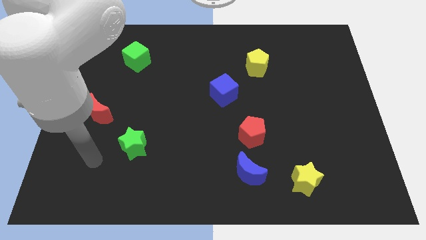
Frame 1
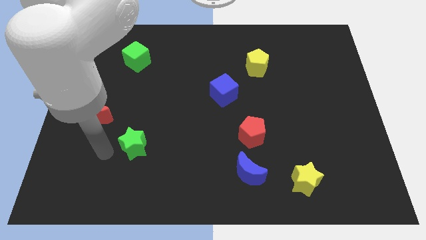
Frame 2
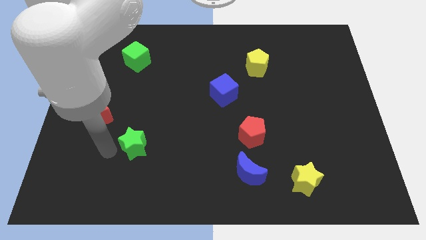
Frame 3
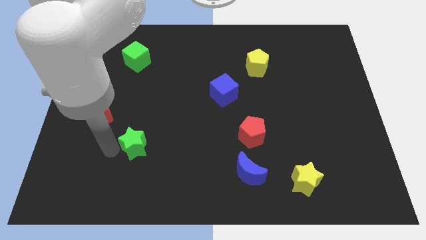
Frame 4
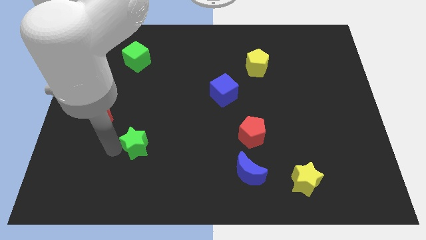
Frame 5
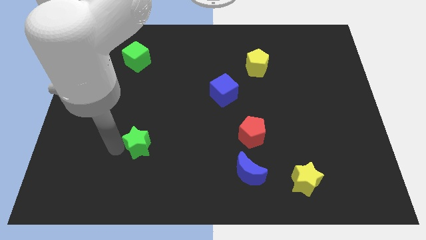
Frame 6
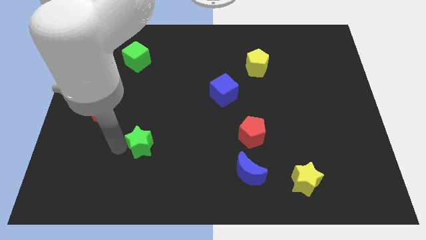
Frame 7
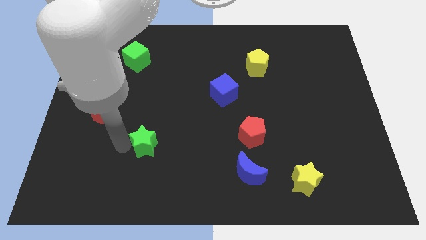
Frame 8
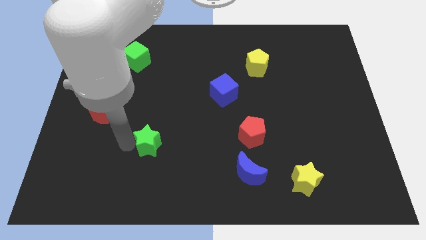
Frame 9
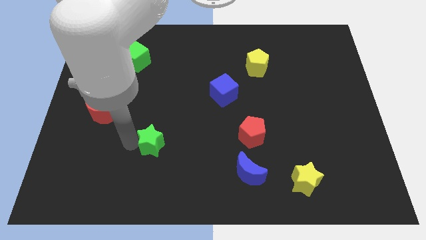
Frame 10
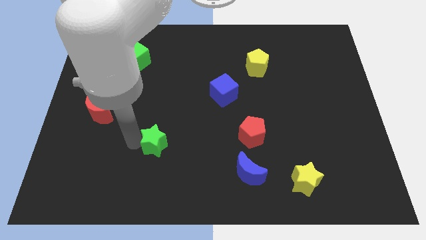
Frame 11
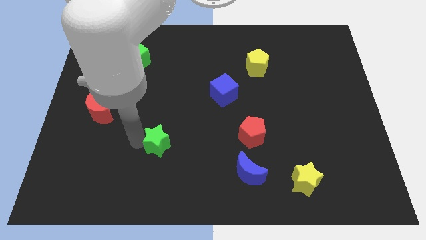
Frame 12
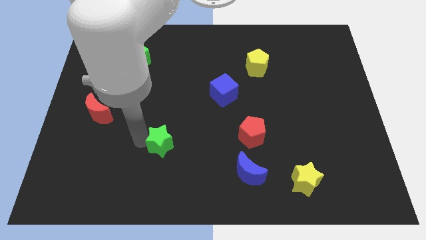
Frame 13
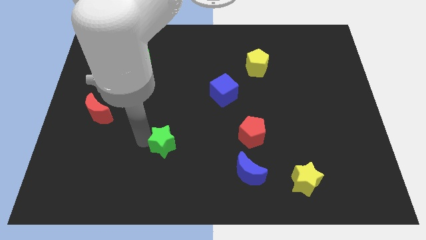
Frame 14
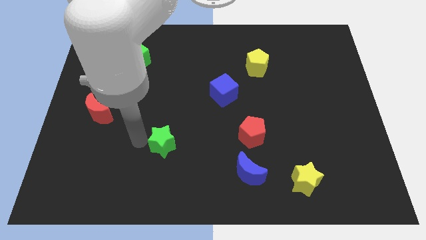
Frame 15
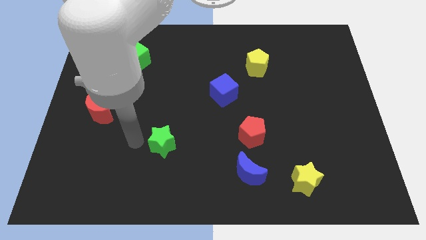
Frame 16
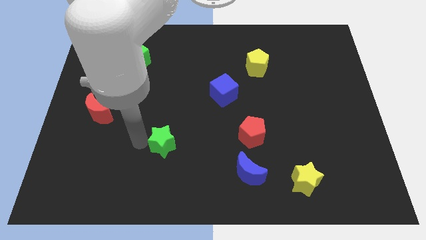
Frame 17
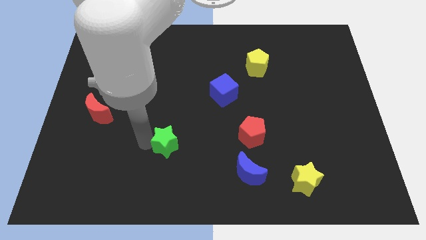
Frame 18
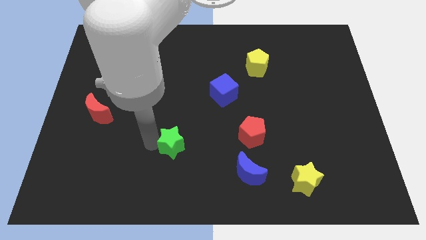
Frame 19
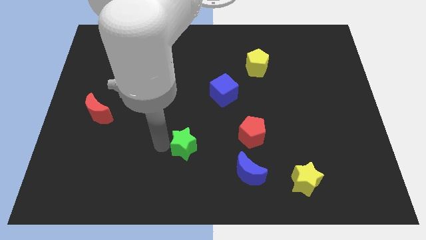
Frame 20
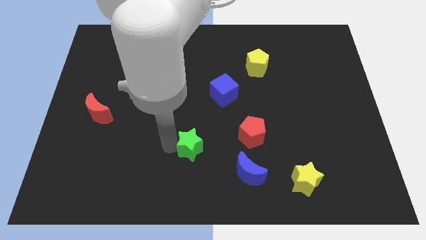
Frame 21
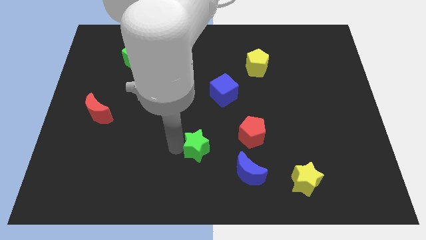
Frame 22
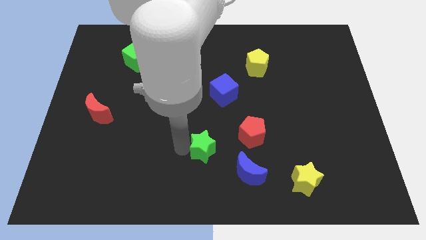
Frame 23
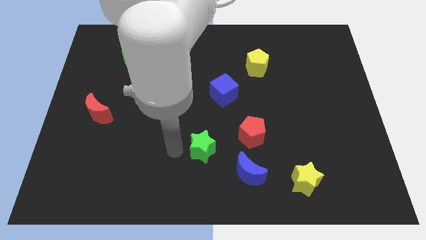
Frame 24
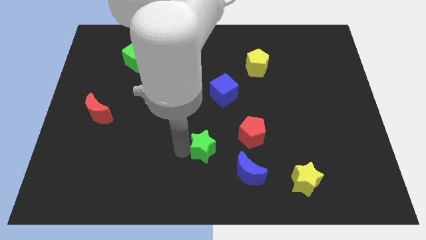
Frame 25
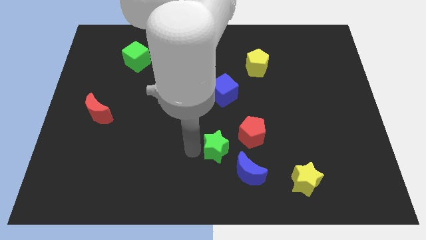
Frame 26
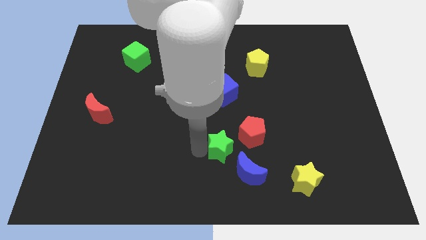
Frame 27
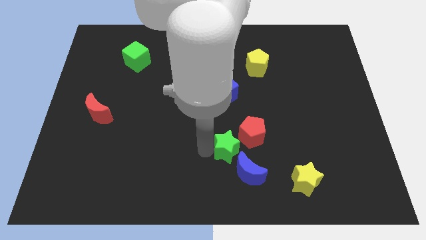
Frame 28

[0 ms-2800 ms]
move the green star right

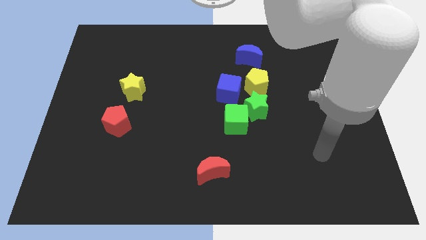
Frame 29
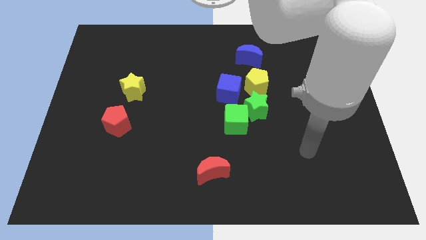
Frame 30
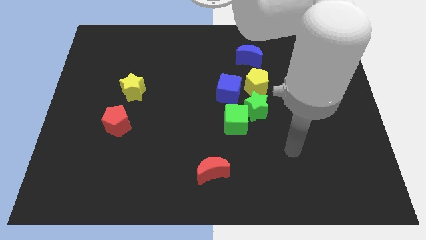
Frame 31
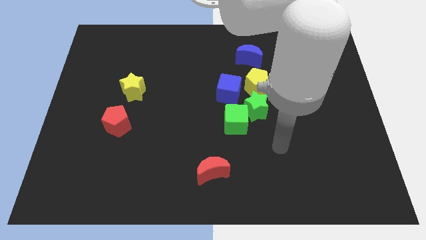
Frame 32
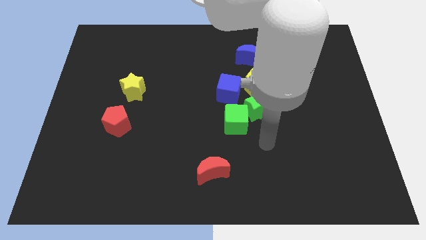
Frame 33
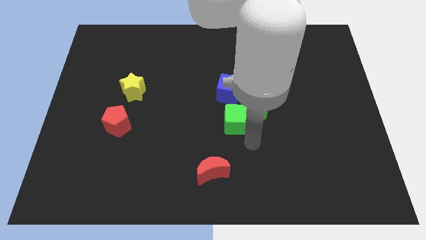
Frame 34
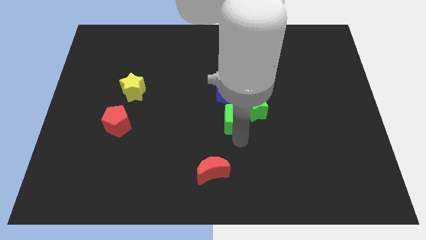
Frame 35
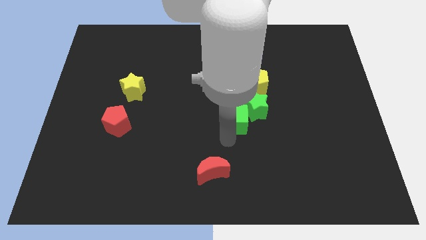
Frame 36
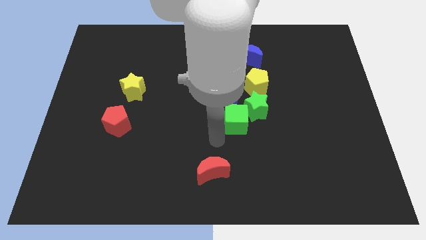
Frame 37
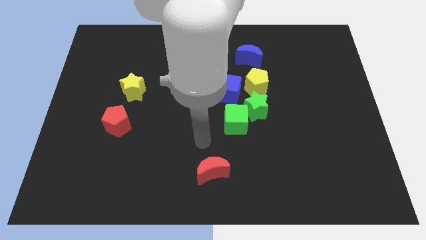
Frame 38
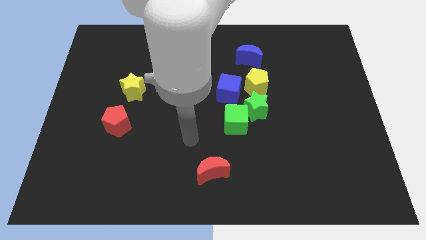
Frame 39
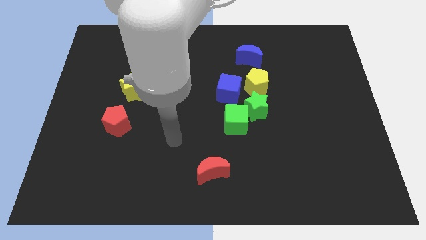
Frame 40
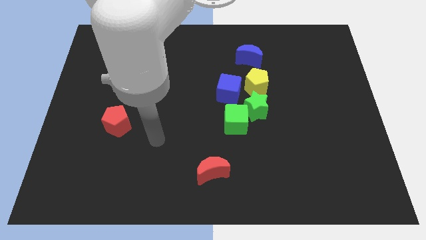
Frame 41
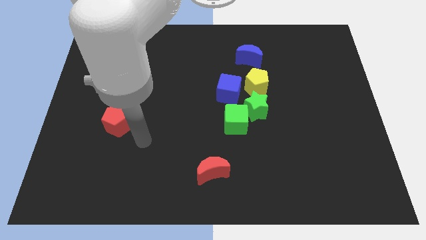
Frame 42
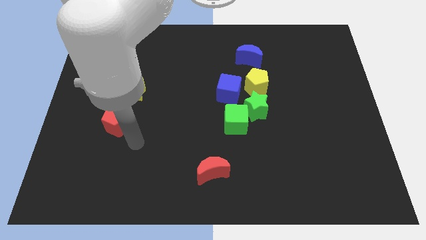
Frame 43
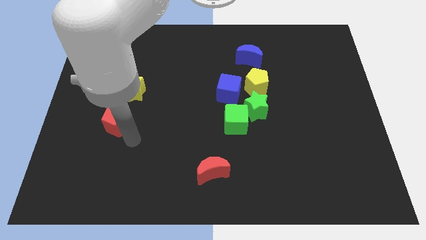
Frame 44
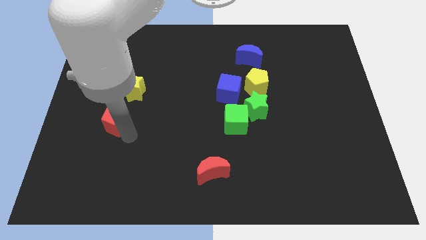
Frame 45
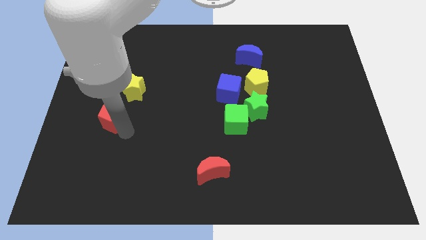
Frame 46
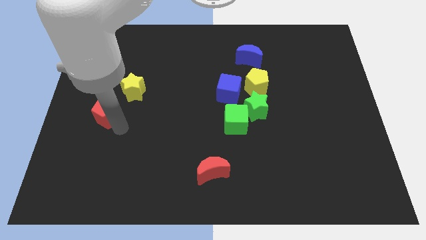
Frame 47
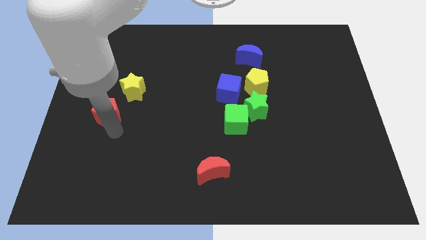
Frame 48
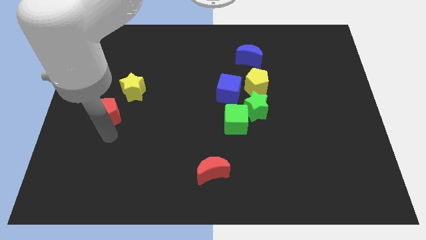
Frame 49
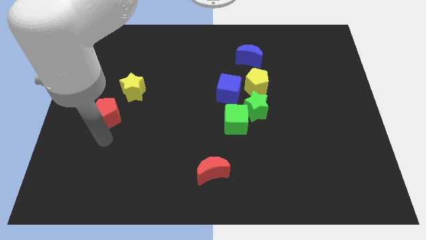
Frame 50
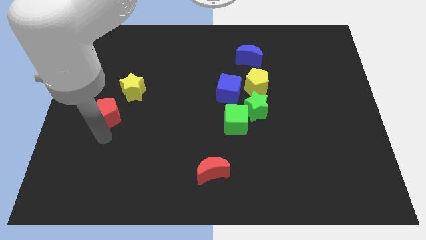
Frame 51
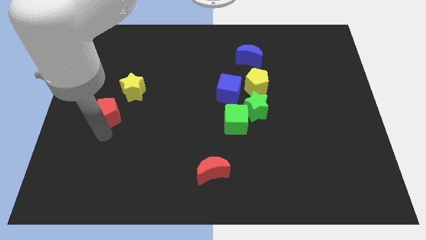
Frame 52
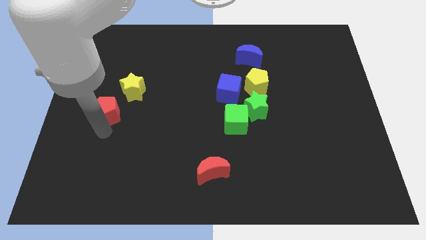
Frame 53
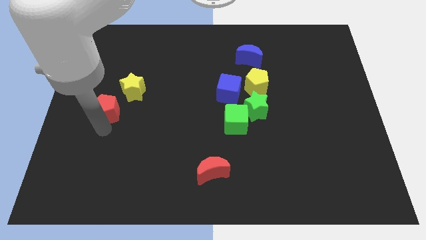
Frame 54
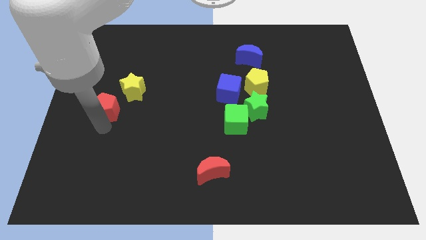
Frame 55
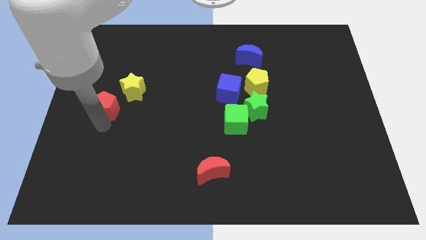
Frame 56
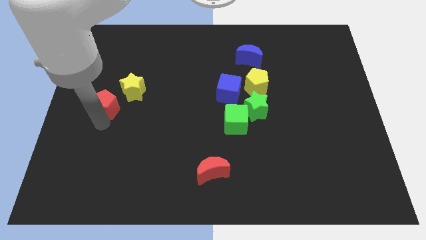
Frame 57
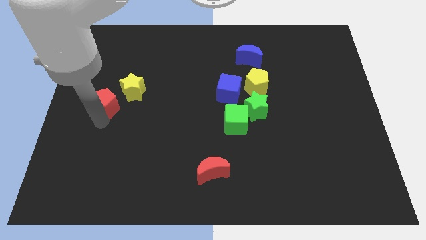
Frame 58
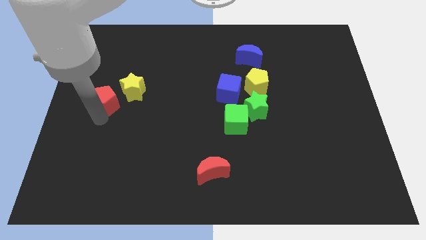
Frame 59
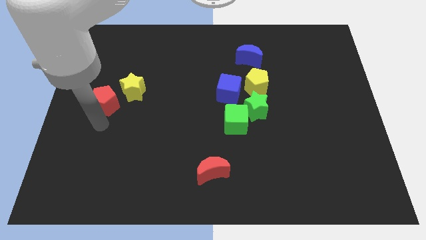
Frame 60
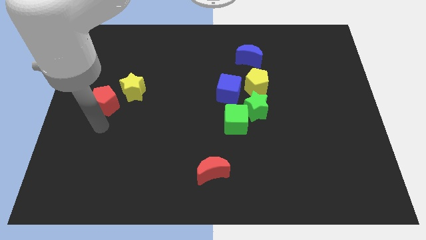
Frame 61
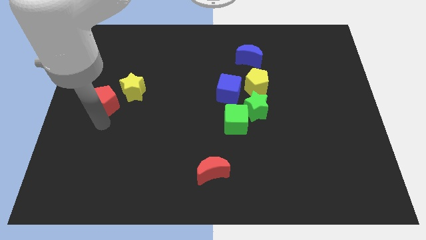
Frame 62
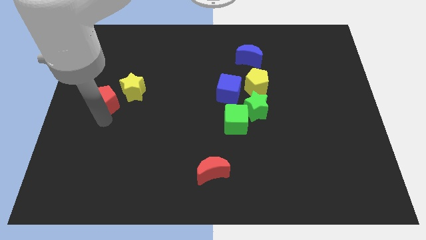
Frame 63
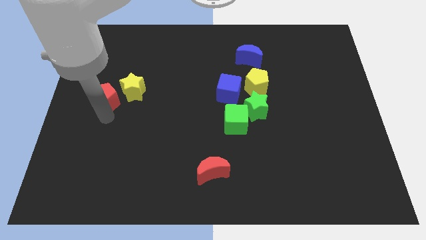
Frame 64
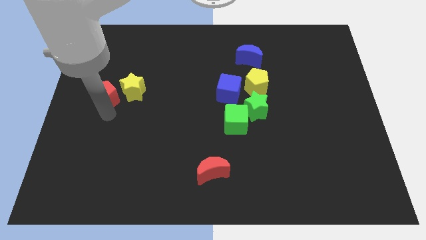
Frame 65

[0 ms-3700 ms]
push the red pentagon slightly upwards

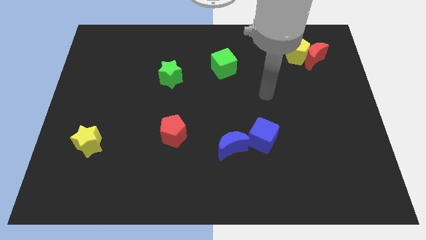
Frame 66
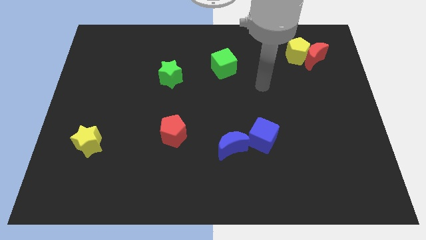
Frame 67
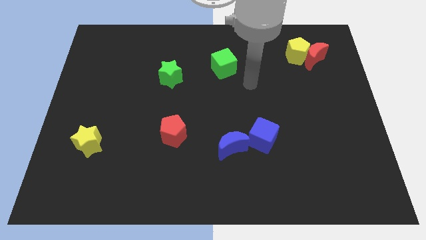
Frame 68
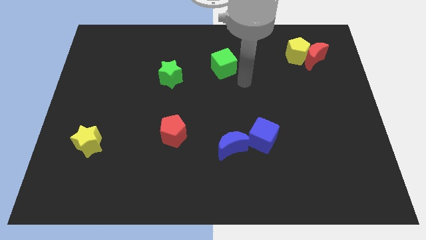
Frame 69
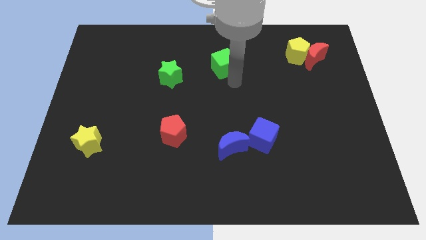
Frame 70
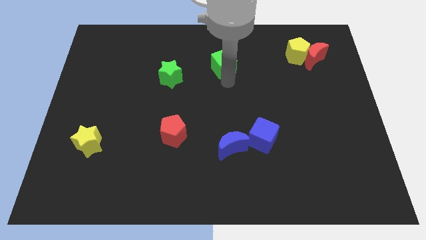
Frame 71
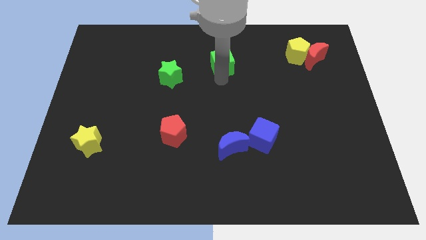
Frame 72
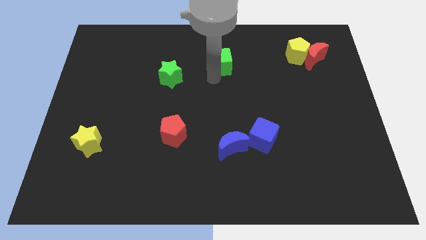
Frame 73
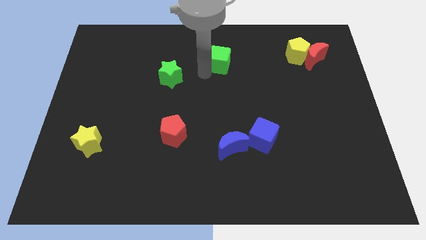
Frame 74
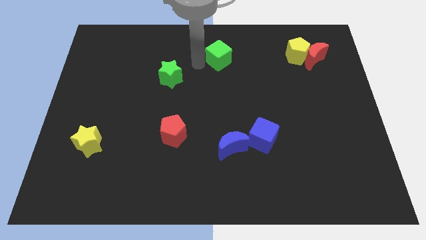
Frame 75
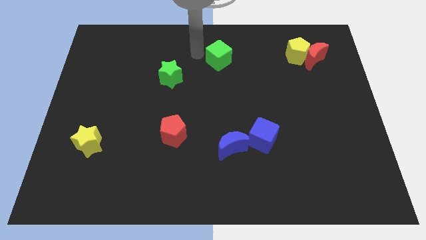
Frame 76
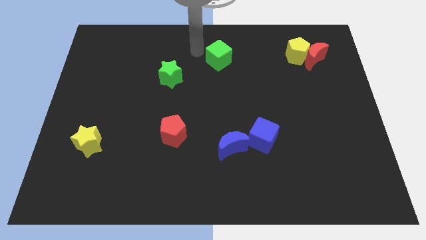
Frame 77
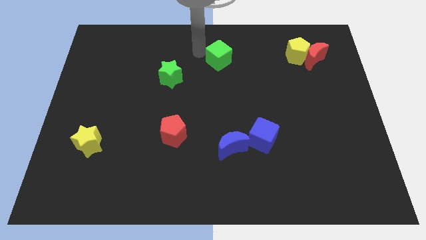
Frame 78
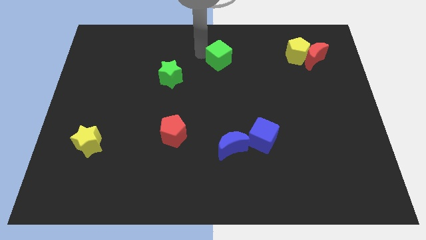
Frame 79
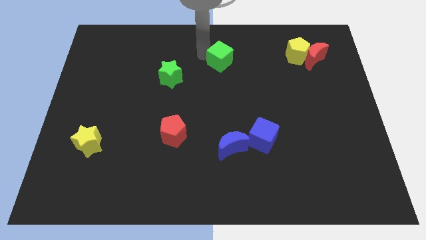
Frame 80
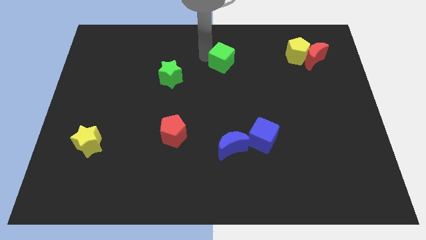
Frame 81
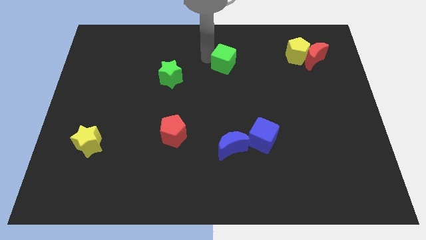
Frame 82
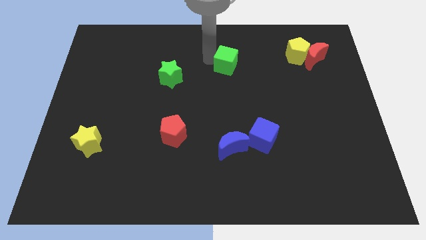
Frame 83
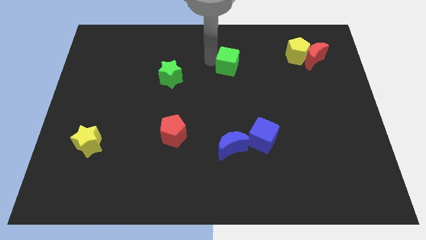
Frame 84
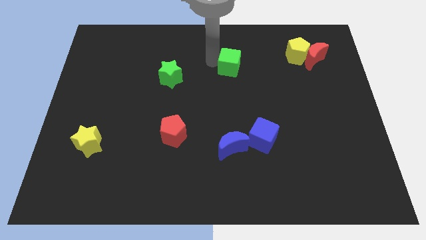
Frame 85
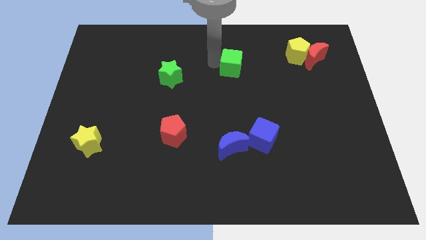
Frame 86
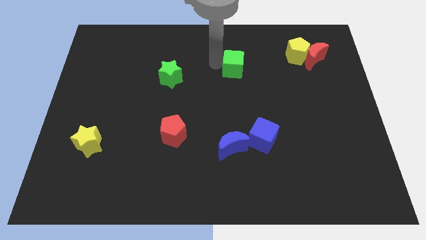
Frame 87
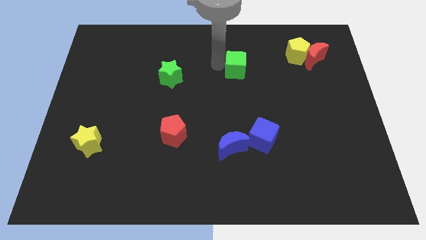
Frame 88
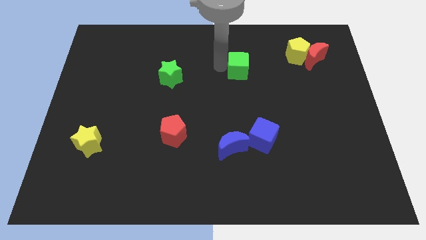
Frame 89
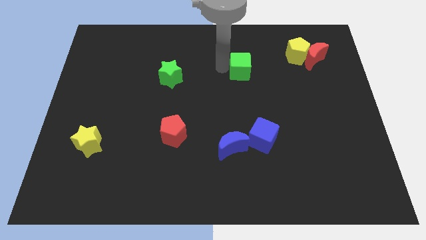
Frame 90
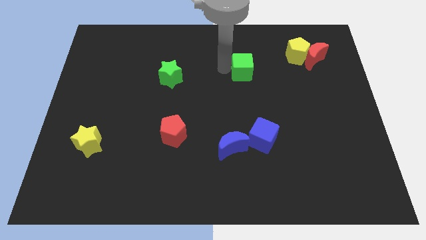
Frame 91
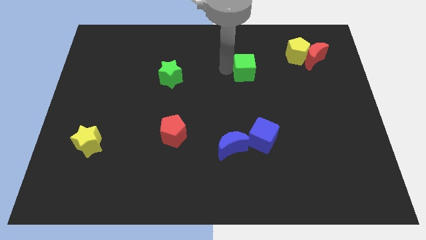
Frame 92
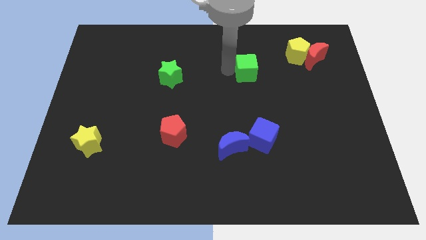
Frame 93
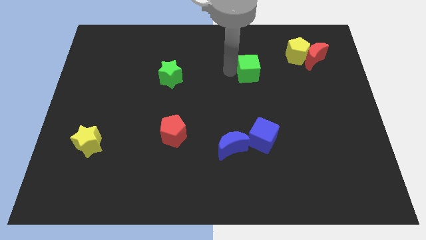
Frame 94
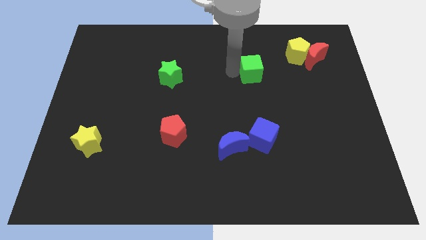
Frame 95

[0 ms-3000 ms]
slide the green cube a little bit right
